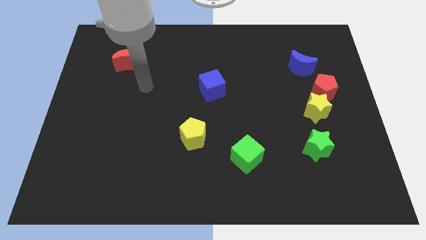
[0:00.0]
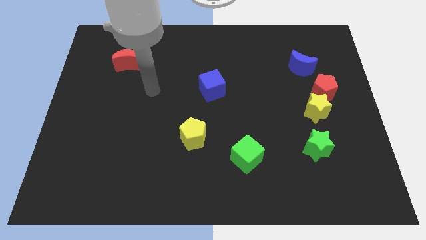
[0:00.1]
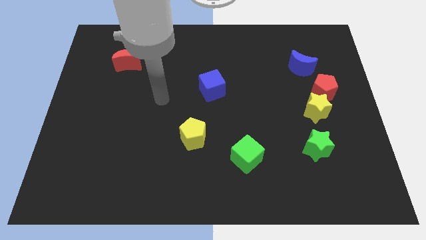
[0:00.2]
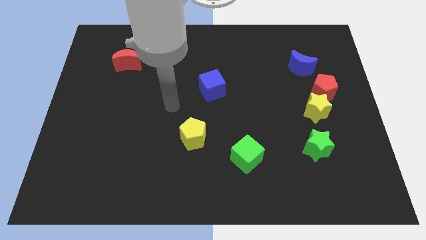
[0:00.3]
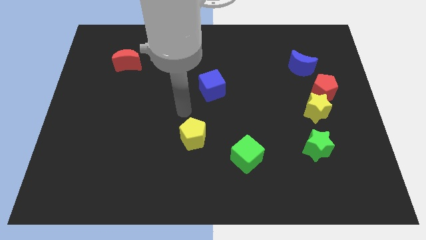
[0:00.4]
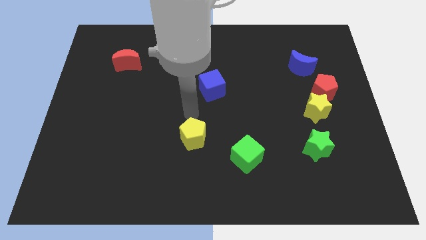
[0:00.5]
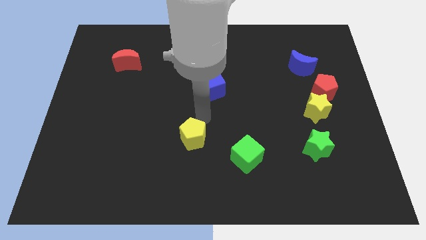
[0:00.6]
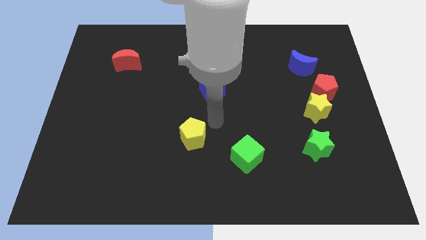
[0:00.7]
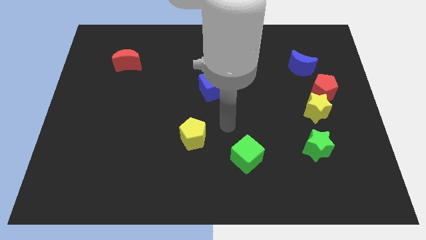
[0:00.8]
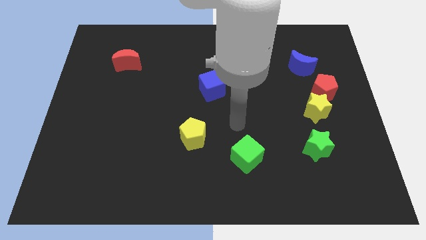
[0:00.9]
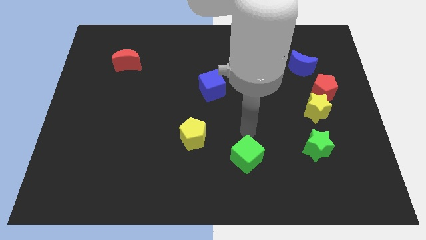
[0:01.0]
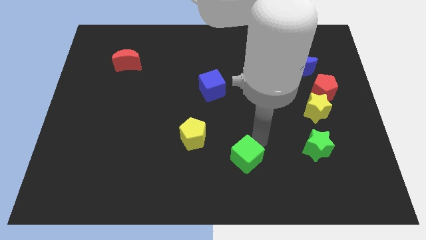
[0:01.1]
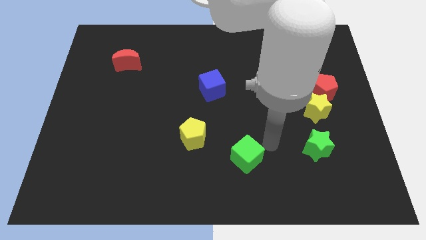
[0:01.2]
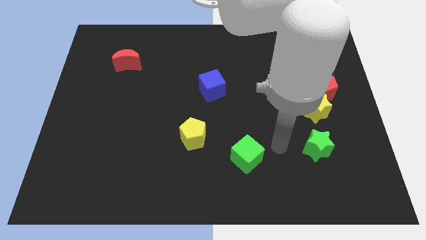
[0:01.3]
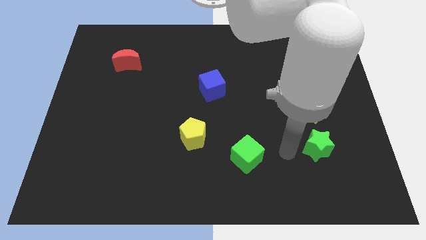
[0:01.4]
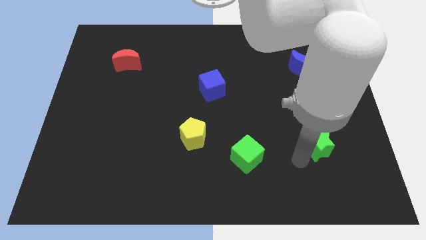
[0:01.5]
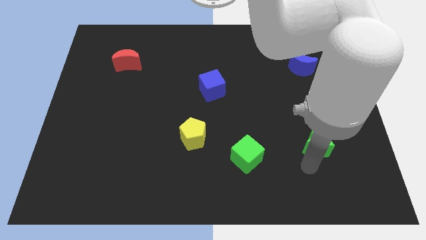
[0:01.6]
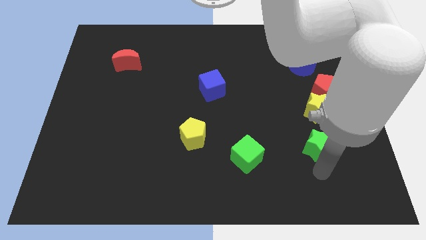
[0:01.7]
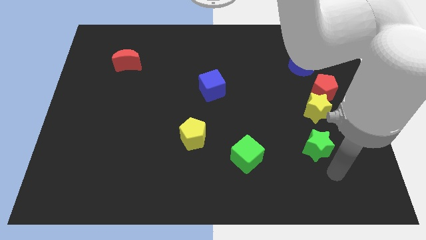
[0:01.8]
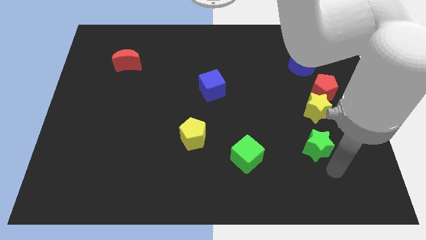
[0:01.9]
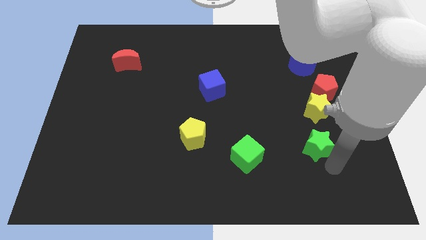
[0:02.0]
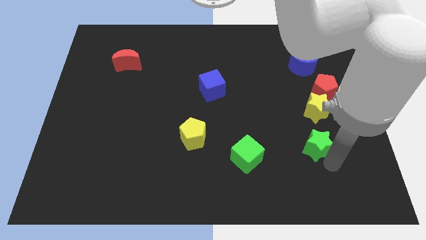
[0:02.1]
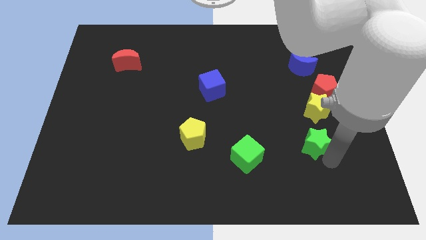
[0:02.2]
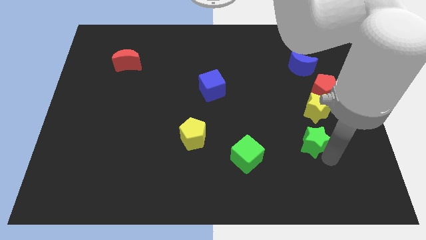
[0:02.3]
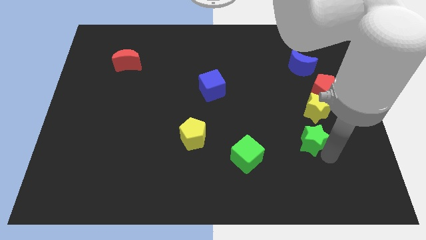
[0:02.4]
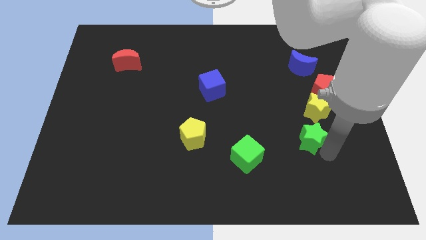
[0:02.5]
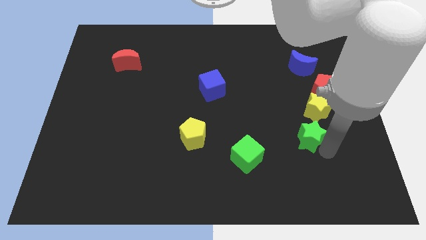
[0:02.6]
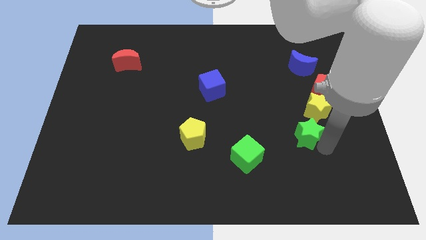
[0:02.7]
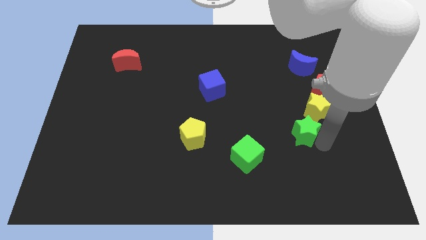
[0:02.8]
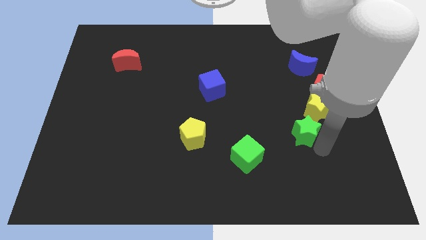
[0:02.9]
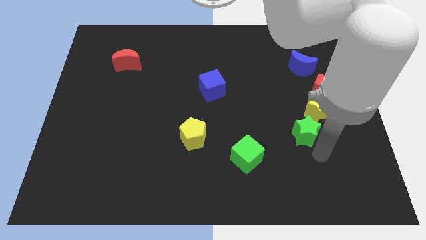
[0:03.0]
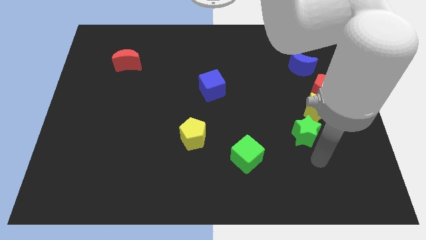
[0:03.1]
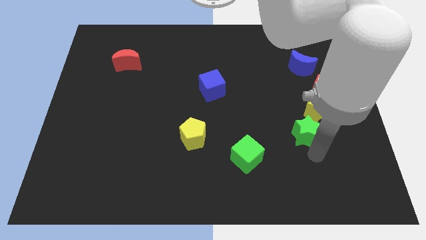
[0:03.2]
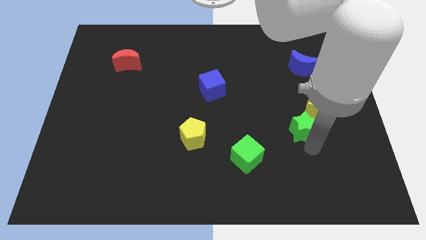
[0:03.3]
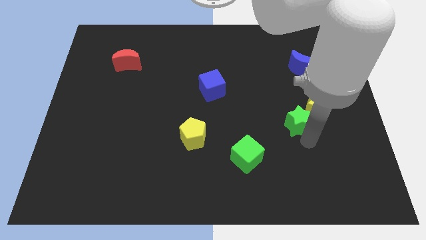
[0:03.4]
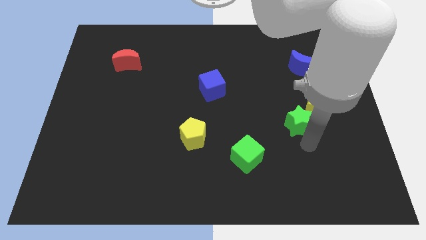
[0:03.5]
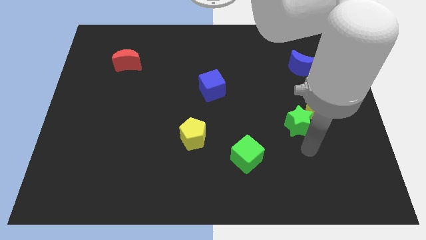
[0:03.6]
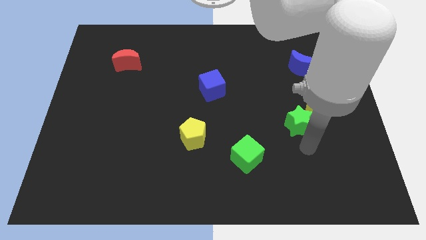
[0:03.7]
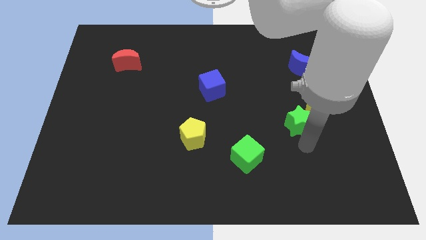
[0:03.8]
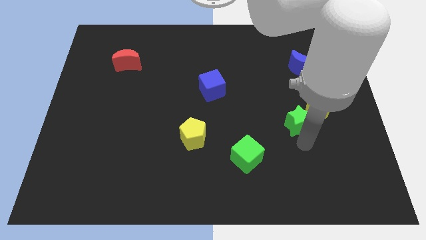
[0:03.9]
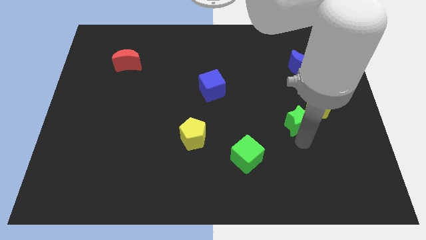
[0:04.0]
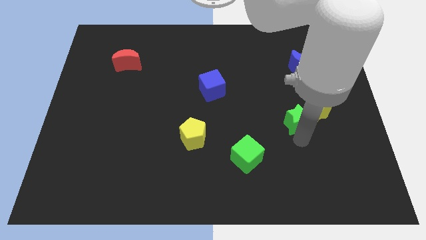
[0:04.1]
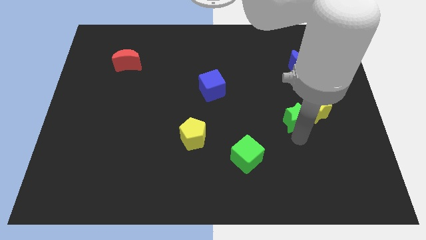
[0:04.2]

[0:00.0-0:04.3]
move the green star a bit up

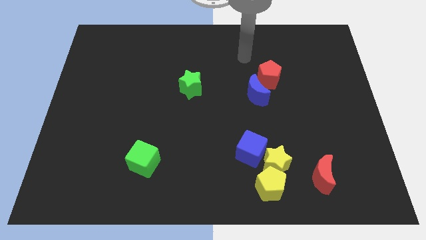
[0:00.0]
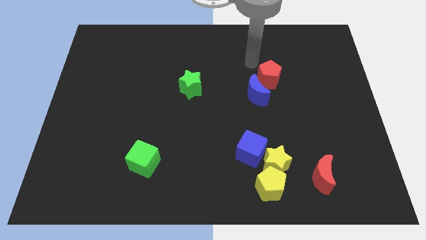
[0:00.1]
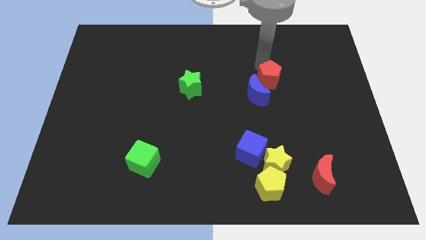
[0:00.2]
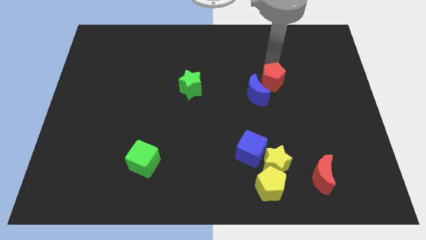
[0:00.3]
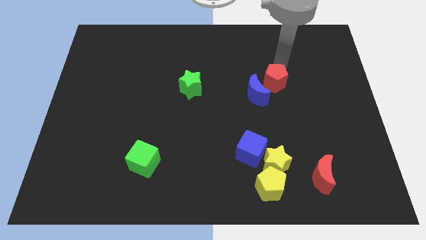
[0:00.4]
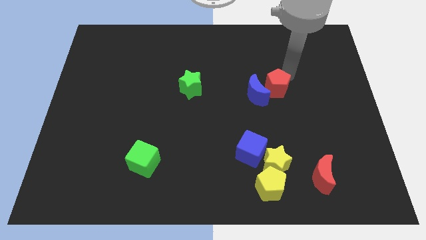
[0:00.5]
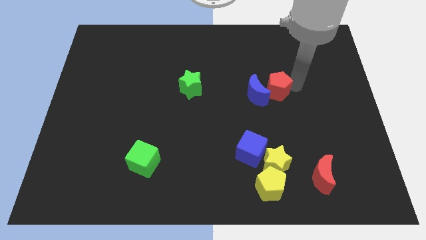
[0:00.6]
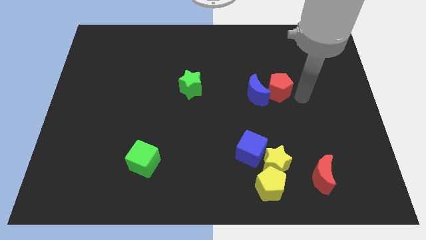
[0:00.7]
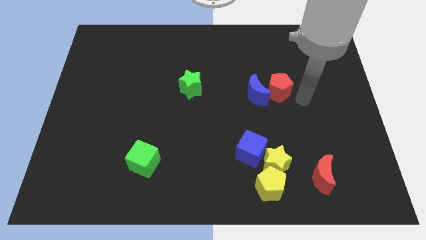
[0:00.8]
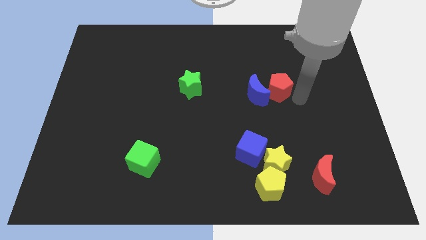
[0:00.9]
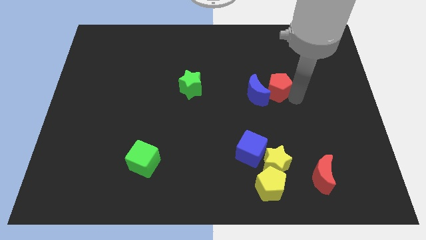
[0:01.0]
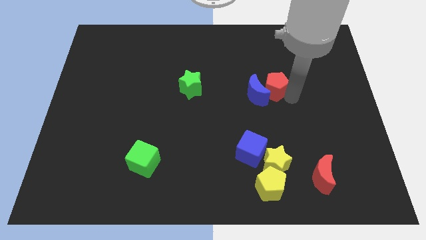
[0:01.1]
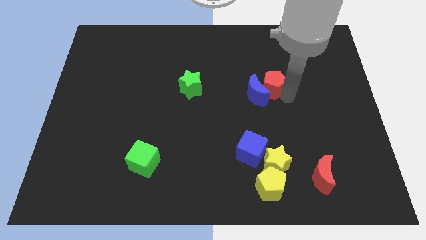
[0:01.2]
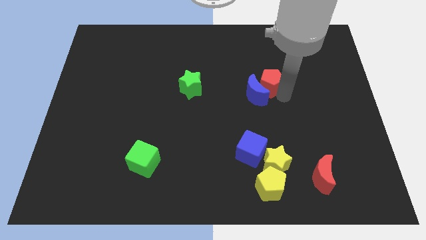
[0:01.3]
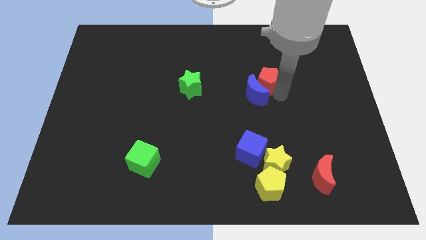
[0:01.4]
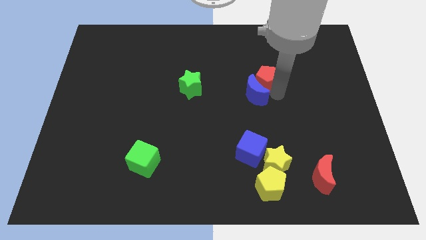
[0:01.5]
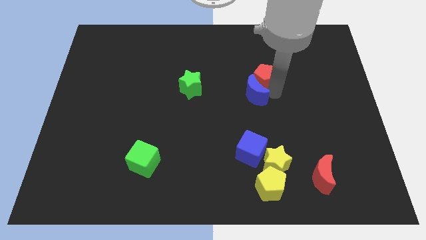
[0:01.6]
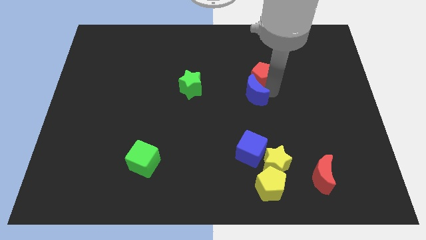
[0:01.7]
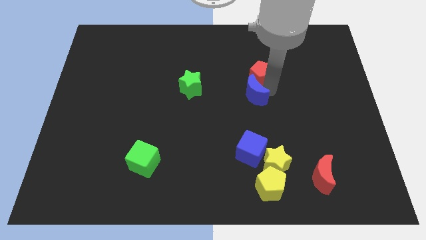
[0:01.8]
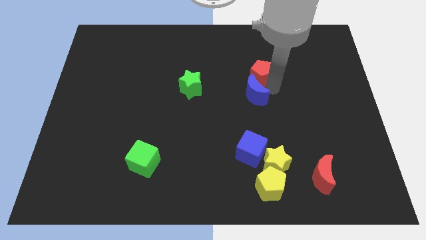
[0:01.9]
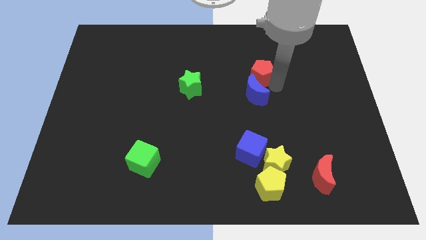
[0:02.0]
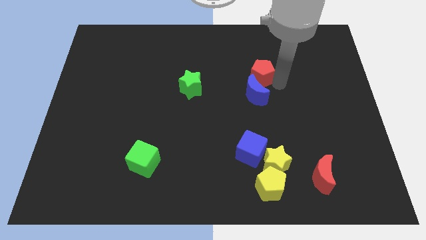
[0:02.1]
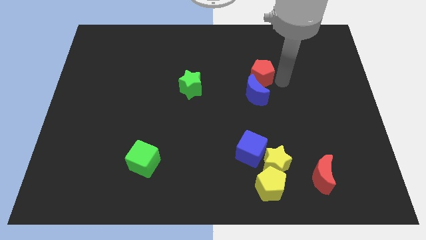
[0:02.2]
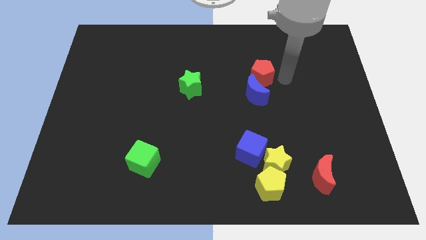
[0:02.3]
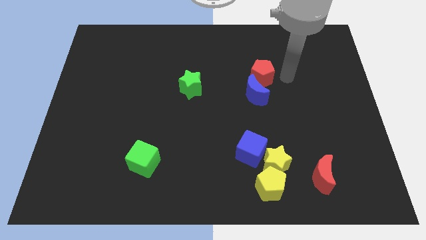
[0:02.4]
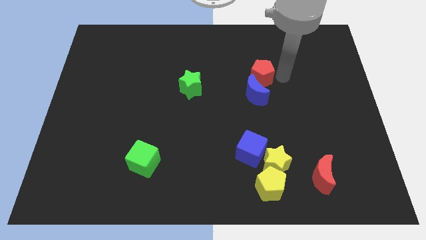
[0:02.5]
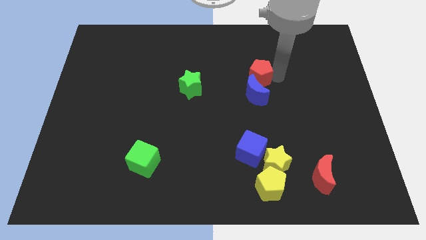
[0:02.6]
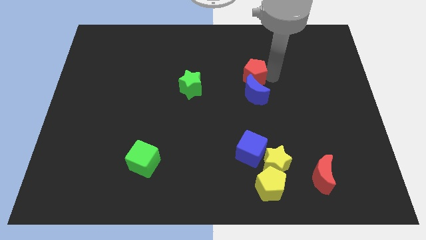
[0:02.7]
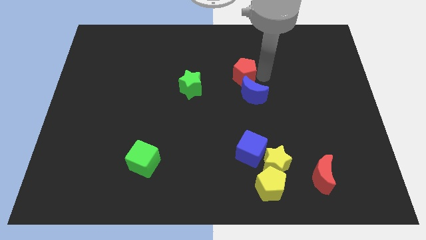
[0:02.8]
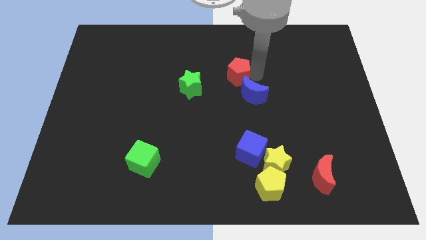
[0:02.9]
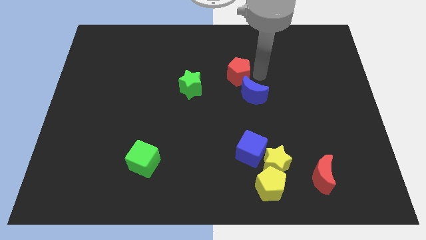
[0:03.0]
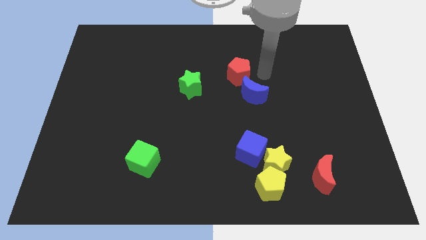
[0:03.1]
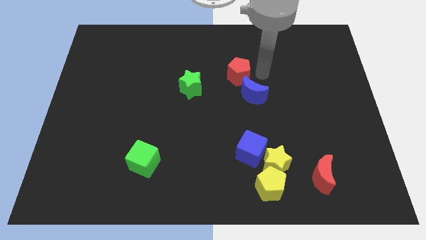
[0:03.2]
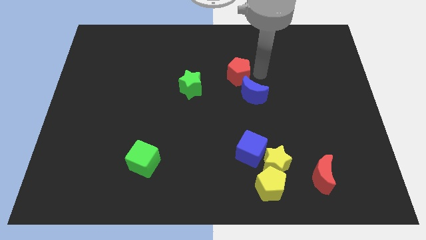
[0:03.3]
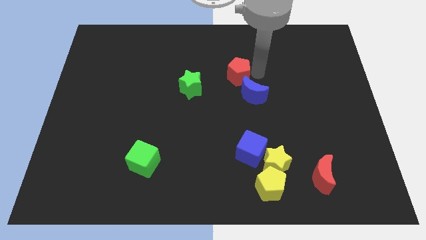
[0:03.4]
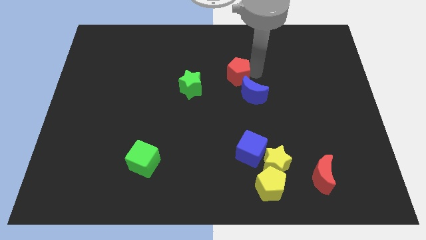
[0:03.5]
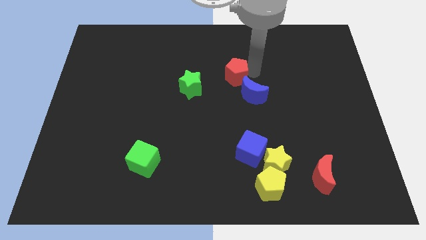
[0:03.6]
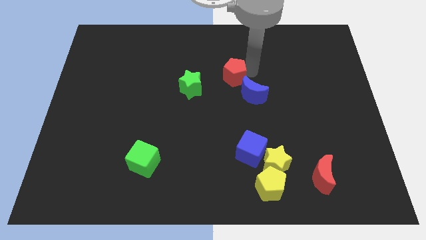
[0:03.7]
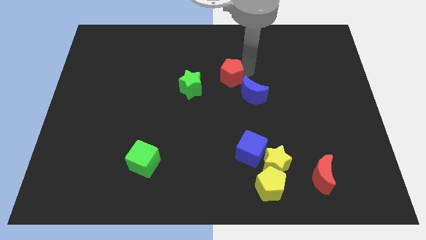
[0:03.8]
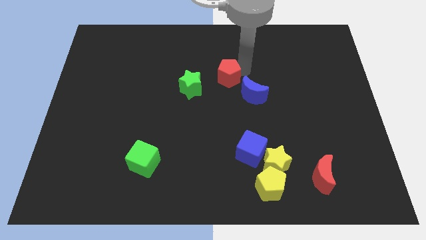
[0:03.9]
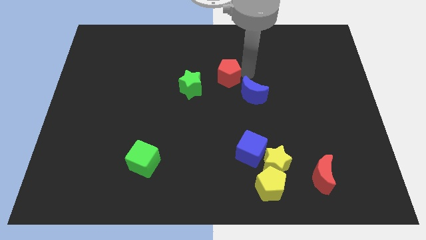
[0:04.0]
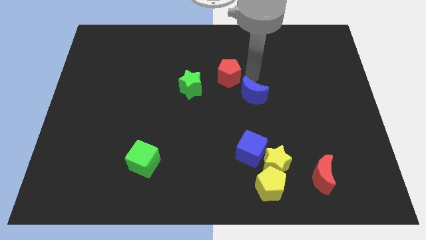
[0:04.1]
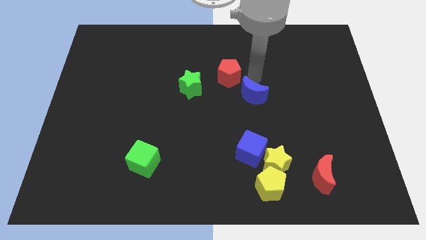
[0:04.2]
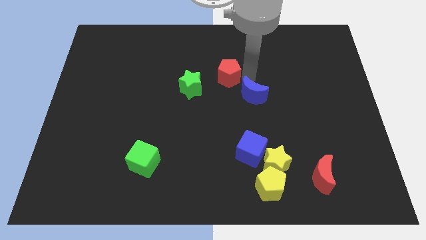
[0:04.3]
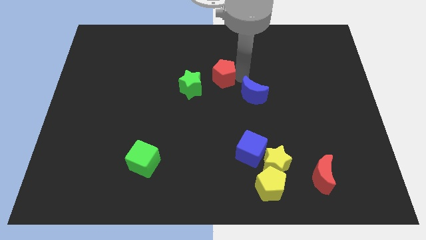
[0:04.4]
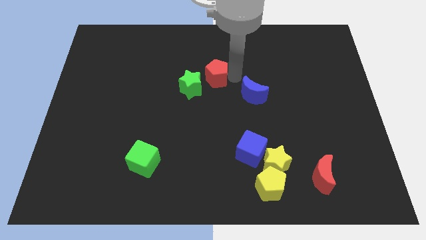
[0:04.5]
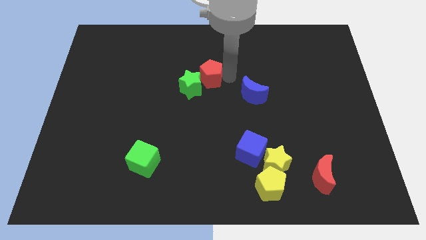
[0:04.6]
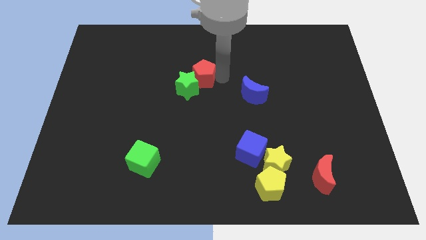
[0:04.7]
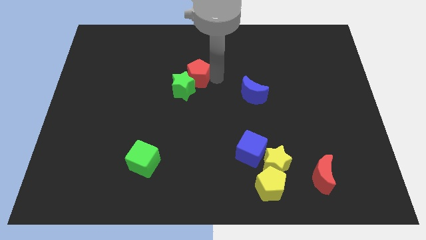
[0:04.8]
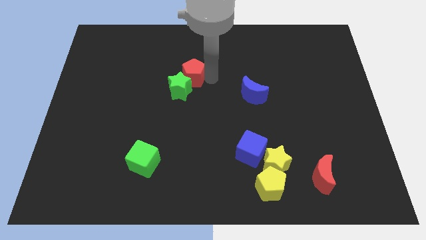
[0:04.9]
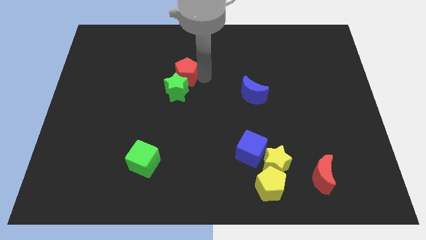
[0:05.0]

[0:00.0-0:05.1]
slide the red pentagon to the left
